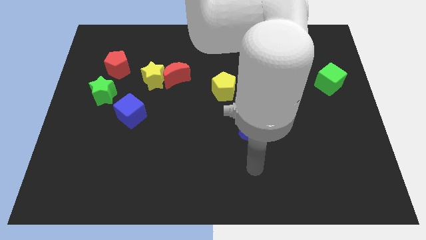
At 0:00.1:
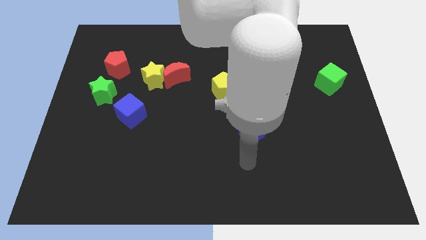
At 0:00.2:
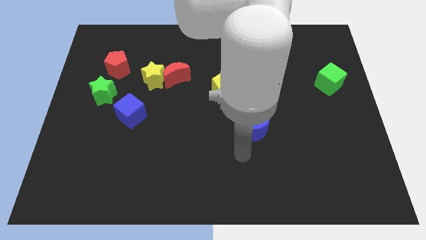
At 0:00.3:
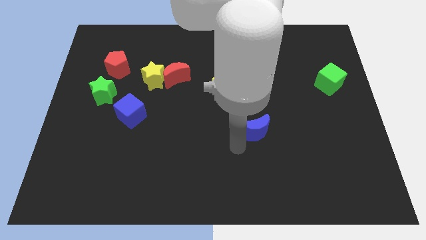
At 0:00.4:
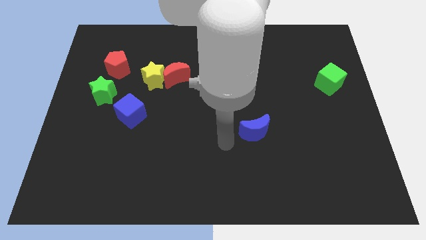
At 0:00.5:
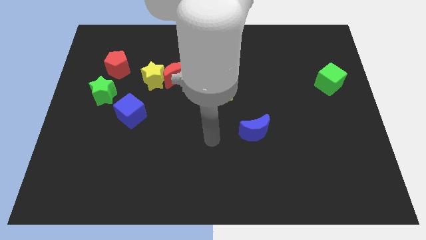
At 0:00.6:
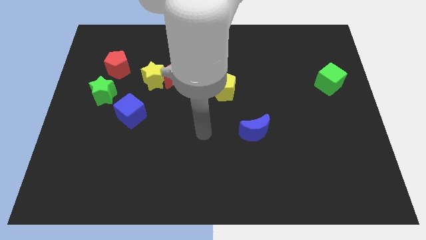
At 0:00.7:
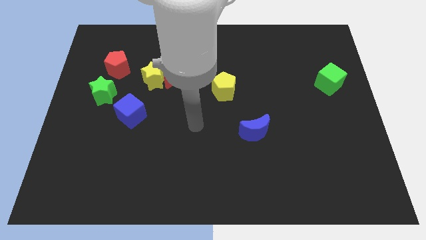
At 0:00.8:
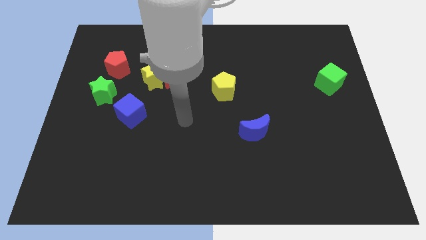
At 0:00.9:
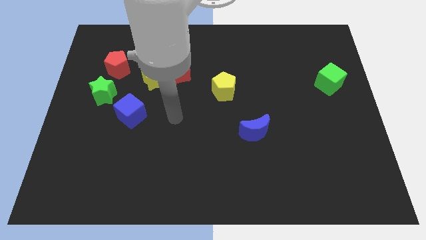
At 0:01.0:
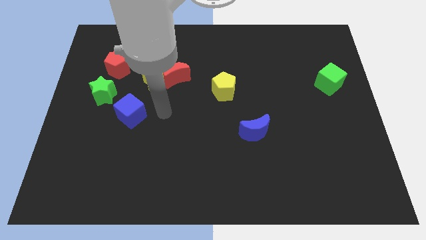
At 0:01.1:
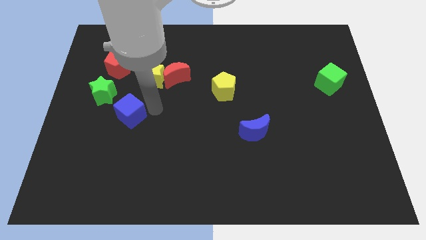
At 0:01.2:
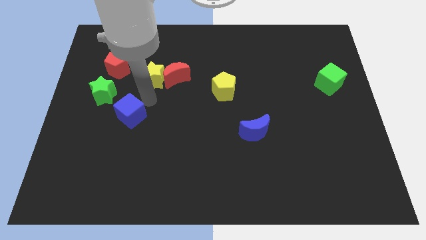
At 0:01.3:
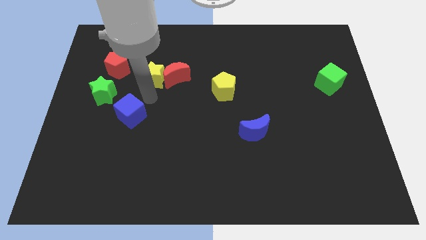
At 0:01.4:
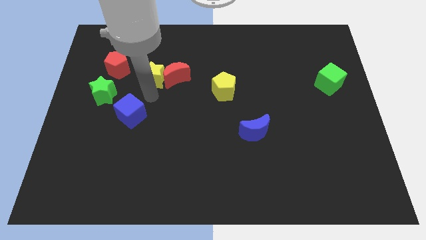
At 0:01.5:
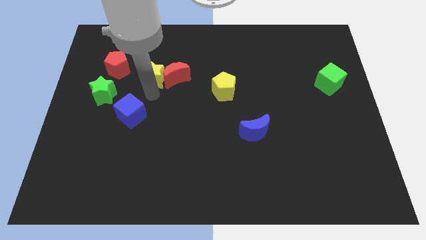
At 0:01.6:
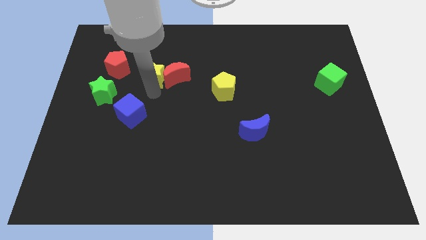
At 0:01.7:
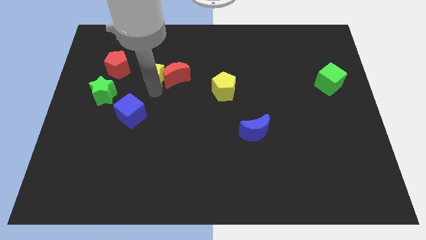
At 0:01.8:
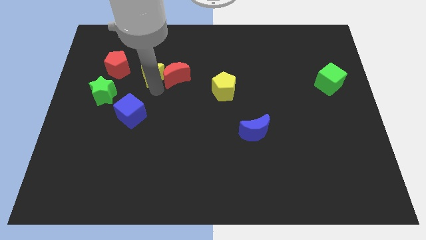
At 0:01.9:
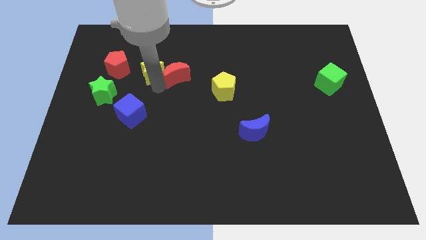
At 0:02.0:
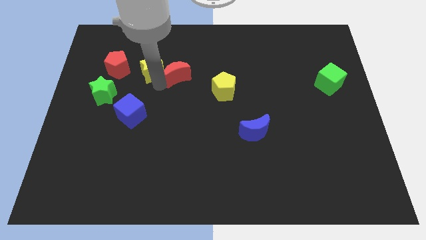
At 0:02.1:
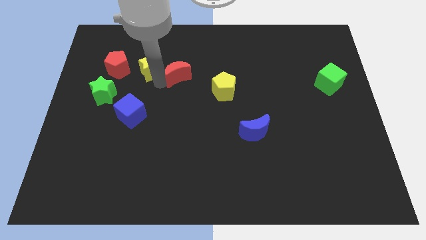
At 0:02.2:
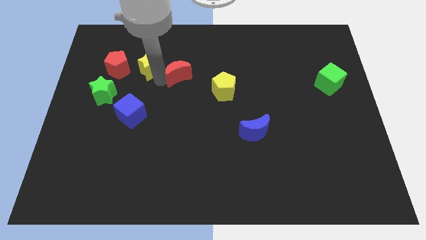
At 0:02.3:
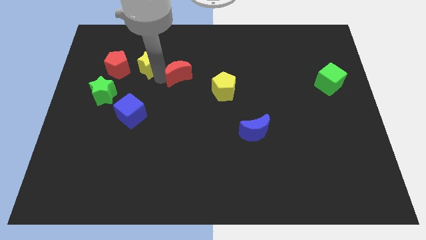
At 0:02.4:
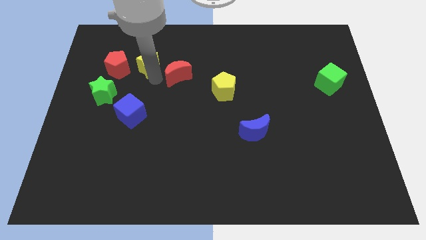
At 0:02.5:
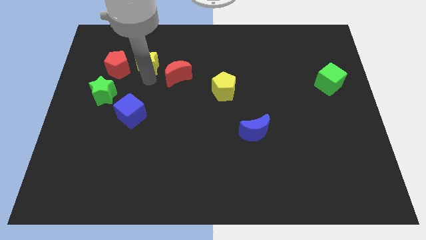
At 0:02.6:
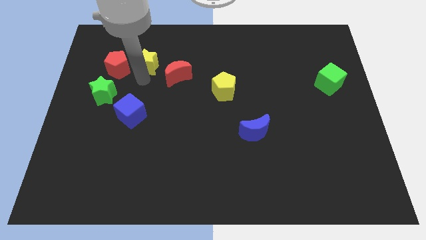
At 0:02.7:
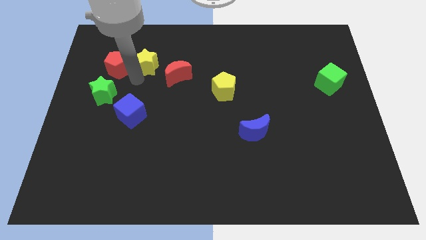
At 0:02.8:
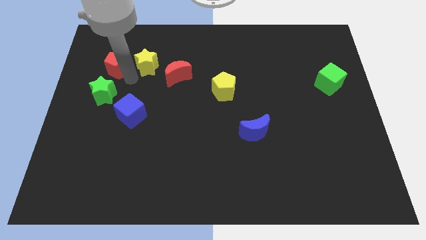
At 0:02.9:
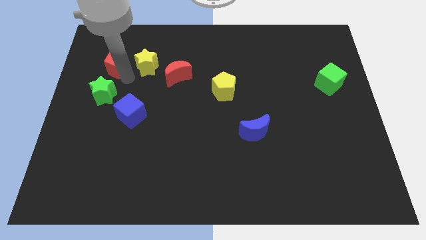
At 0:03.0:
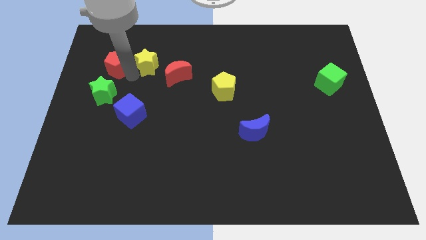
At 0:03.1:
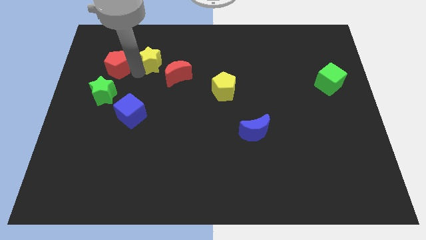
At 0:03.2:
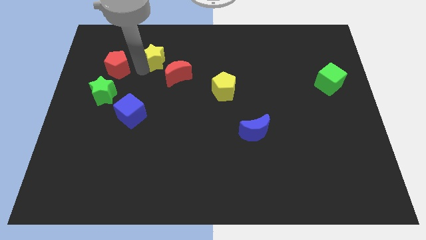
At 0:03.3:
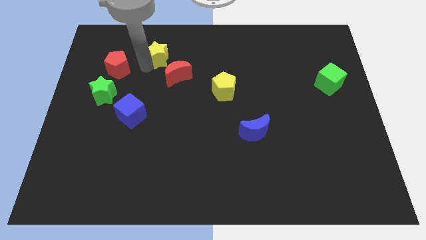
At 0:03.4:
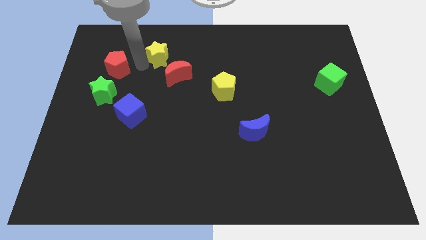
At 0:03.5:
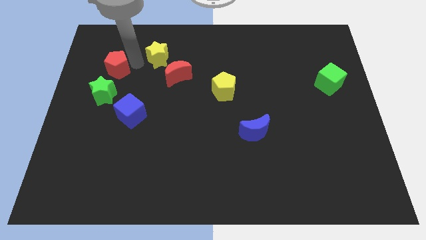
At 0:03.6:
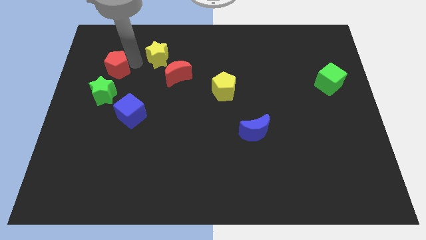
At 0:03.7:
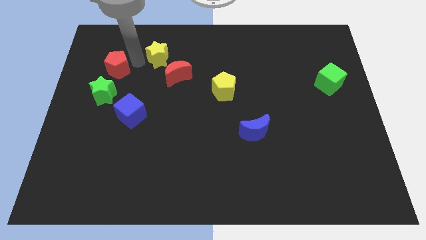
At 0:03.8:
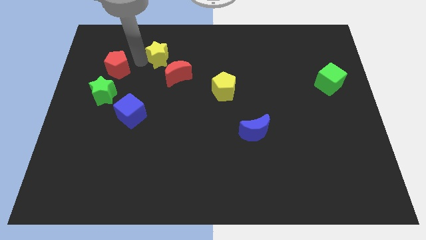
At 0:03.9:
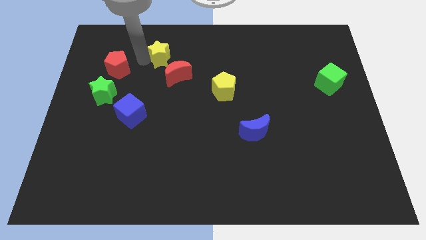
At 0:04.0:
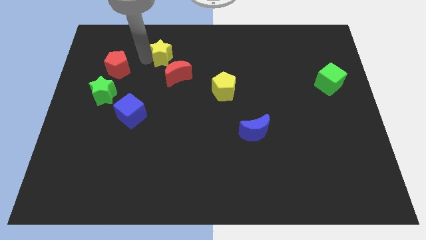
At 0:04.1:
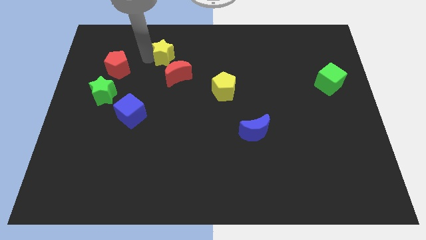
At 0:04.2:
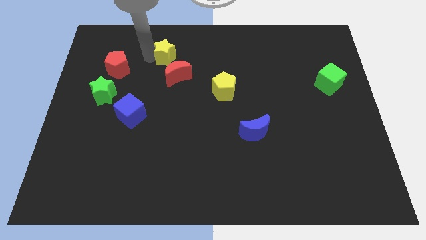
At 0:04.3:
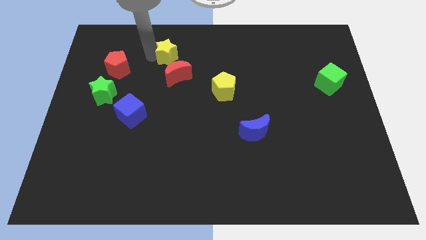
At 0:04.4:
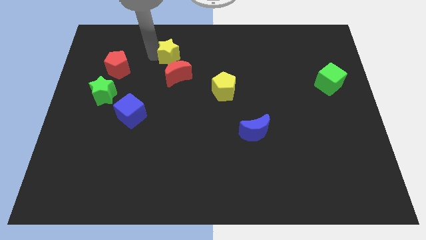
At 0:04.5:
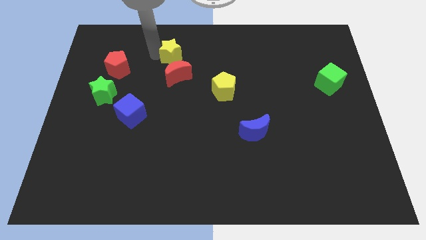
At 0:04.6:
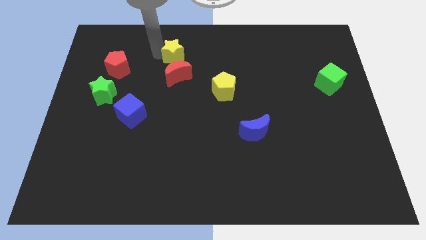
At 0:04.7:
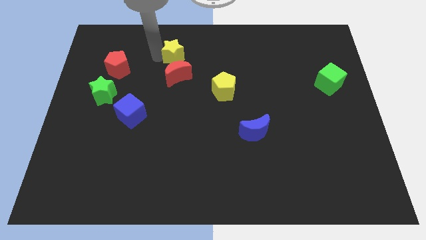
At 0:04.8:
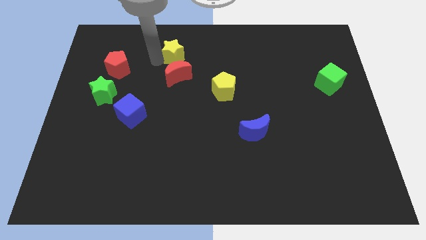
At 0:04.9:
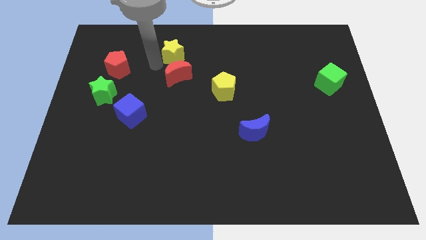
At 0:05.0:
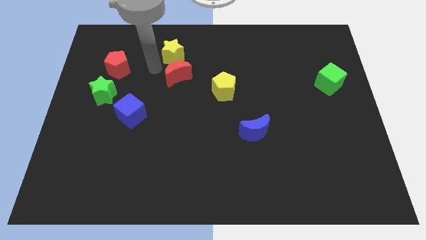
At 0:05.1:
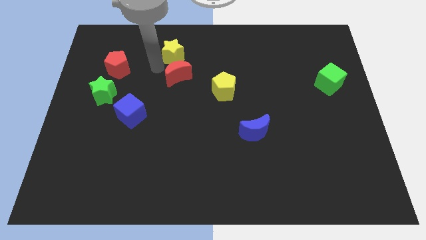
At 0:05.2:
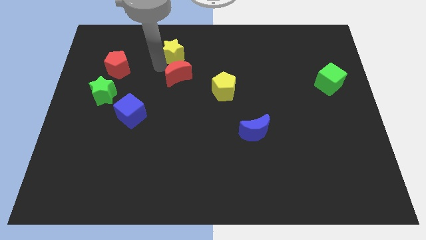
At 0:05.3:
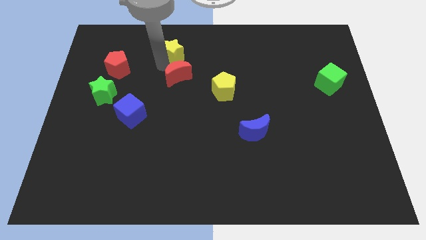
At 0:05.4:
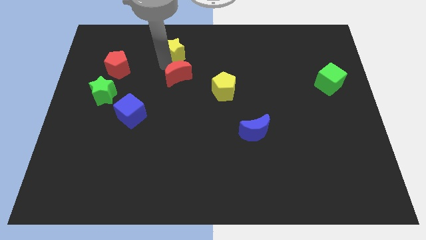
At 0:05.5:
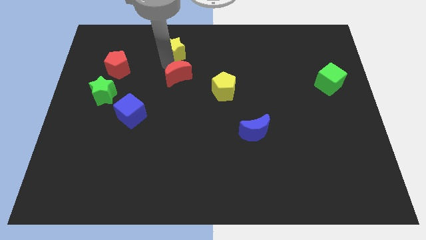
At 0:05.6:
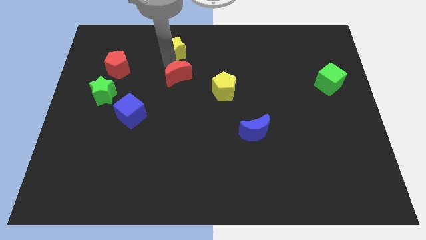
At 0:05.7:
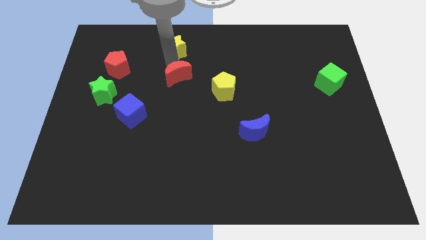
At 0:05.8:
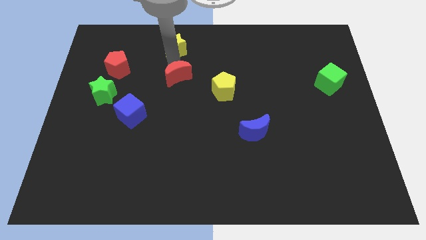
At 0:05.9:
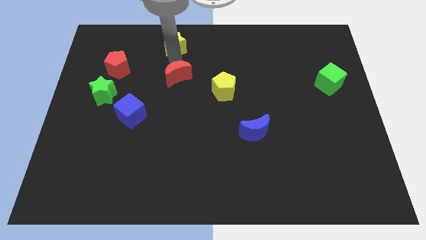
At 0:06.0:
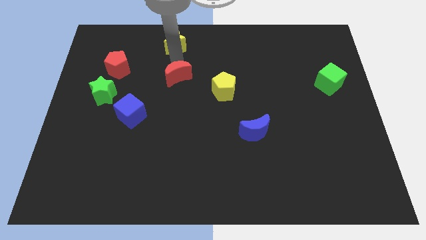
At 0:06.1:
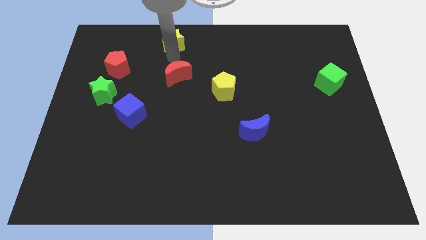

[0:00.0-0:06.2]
move the yellow star to the top
